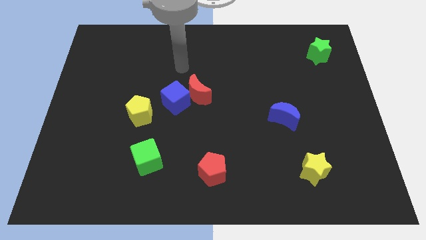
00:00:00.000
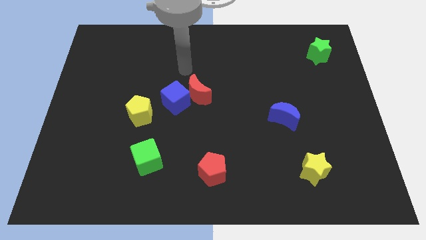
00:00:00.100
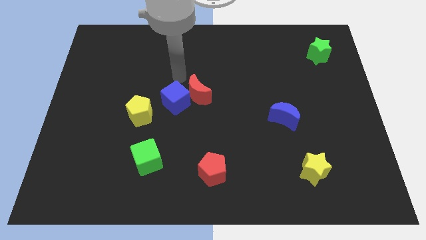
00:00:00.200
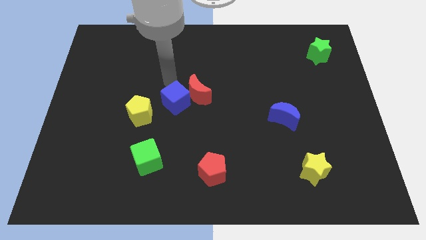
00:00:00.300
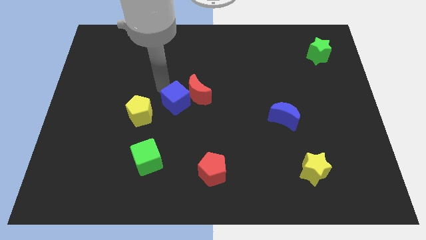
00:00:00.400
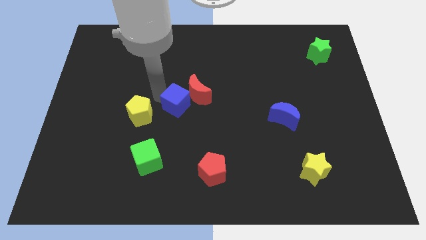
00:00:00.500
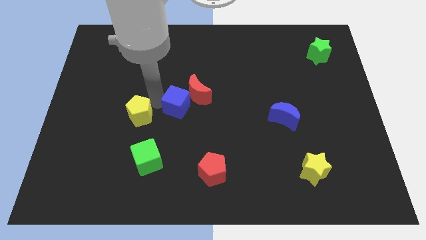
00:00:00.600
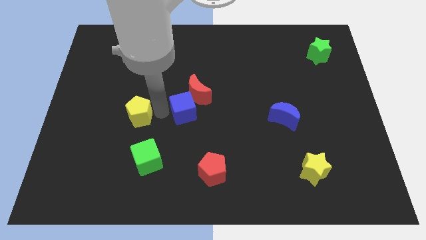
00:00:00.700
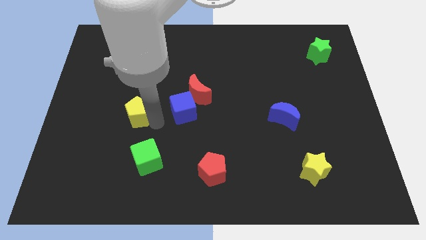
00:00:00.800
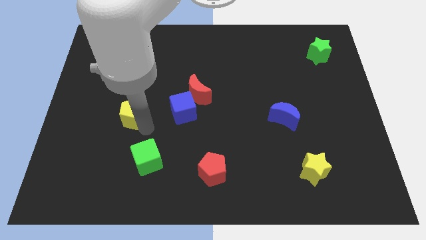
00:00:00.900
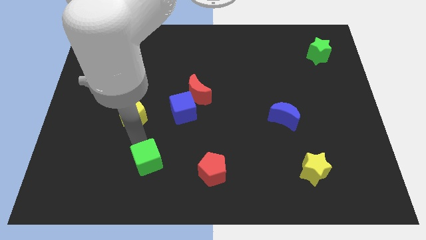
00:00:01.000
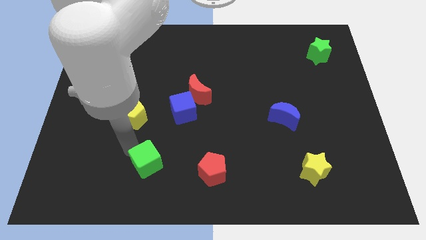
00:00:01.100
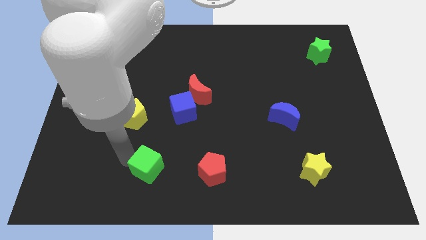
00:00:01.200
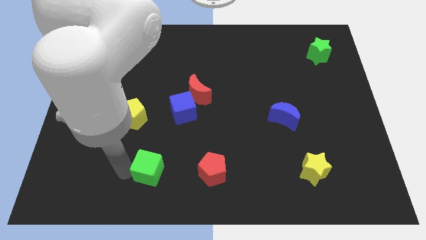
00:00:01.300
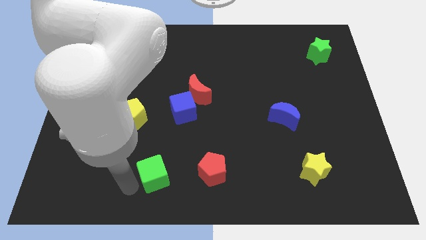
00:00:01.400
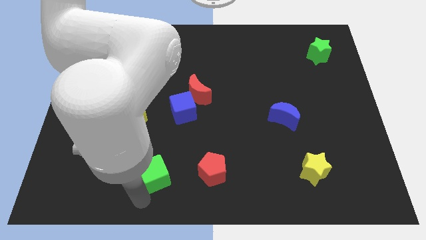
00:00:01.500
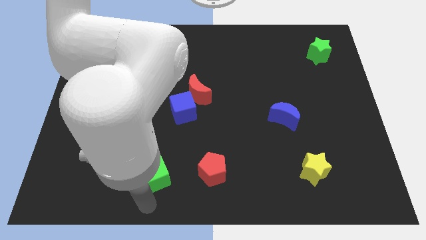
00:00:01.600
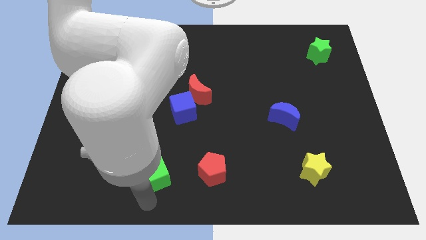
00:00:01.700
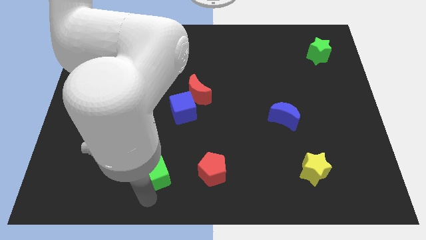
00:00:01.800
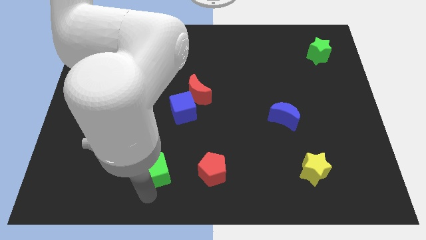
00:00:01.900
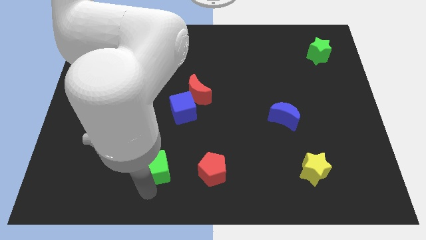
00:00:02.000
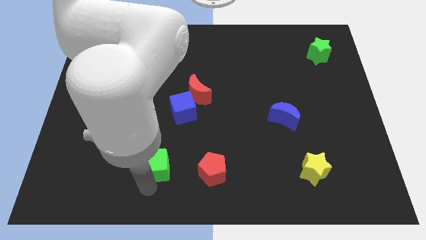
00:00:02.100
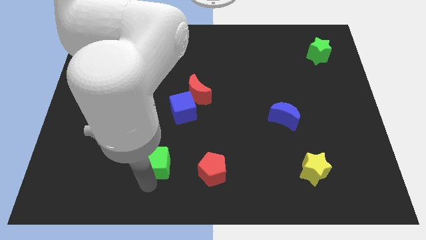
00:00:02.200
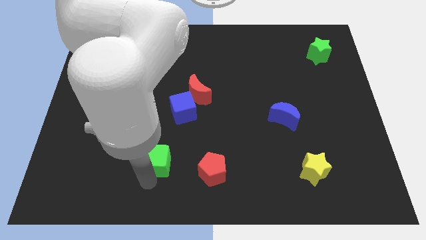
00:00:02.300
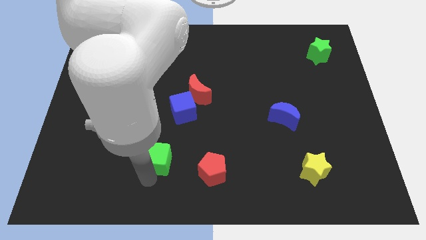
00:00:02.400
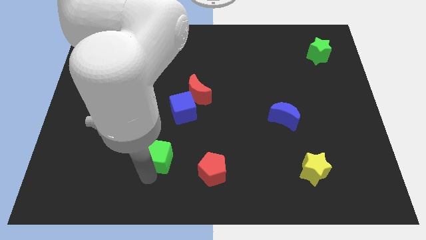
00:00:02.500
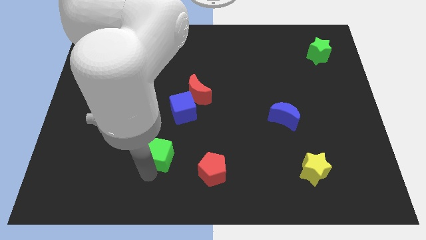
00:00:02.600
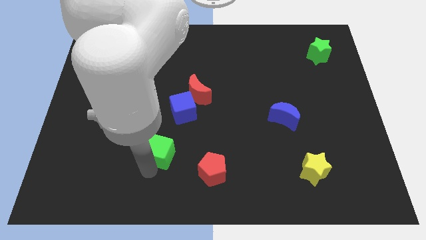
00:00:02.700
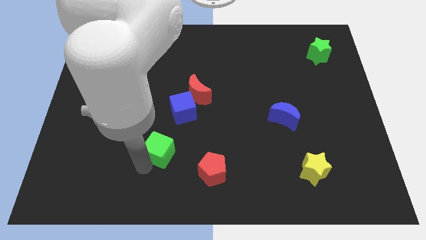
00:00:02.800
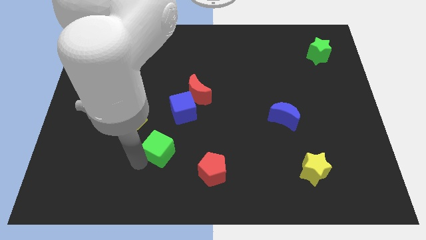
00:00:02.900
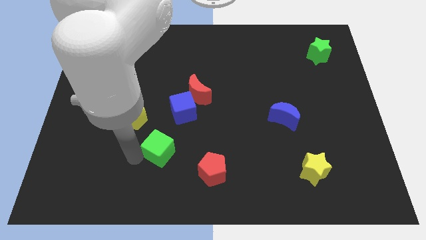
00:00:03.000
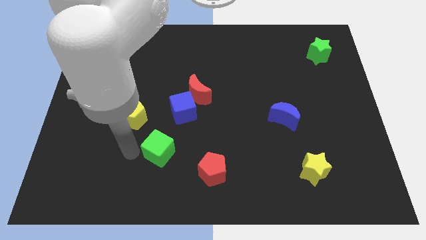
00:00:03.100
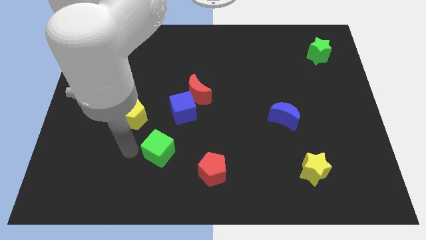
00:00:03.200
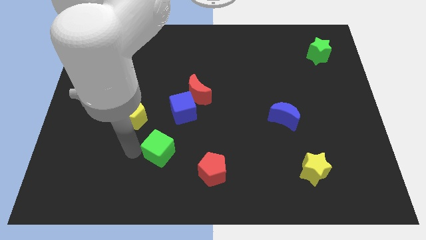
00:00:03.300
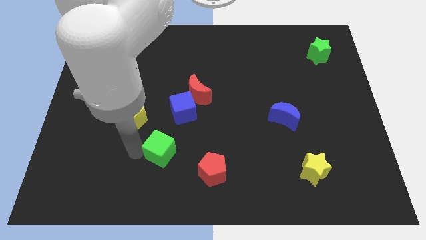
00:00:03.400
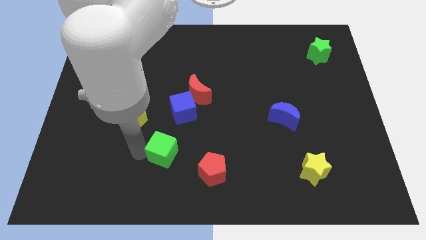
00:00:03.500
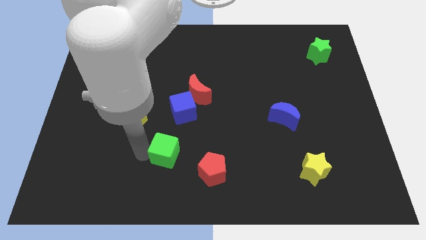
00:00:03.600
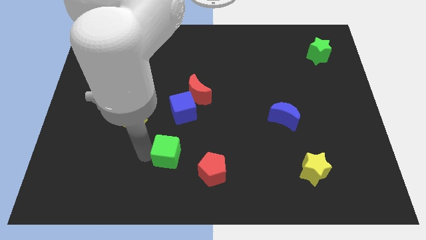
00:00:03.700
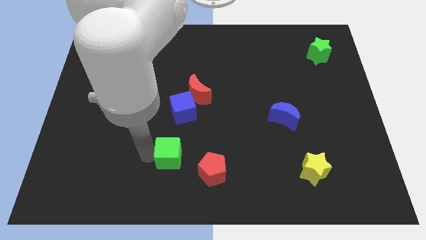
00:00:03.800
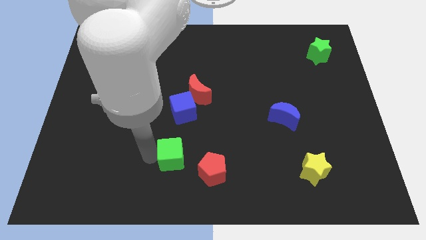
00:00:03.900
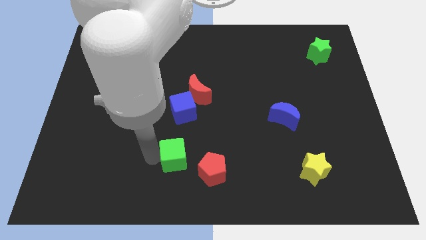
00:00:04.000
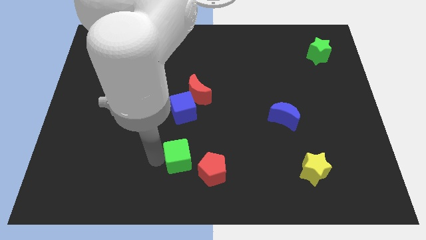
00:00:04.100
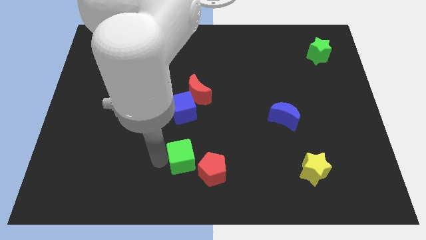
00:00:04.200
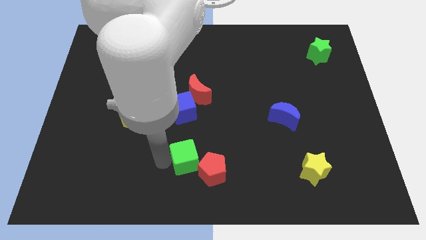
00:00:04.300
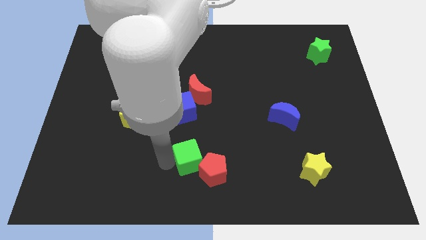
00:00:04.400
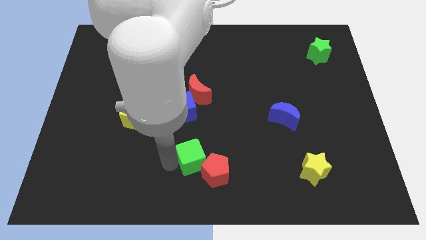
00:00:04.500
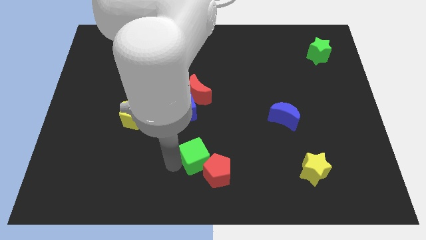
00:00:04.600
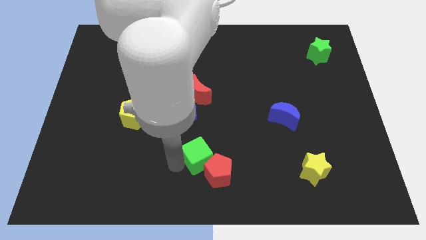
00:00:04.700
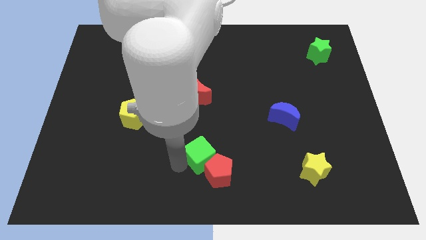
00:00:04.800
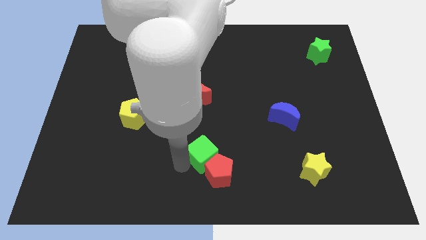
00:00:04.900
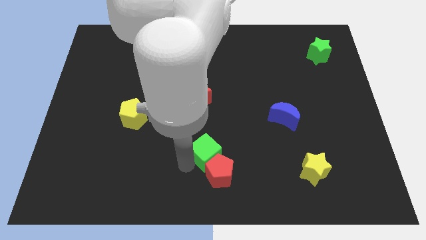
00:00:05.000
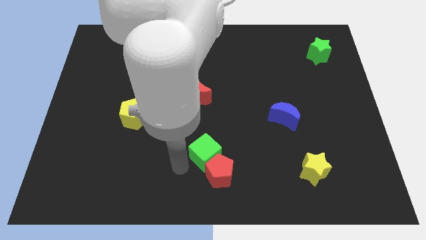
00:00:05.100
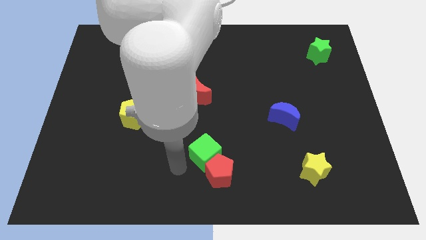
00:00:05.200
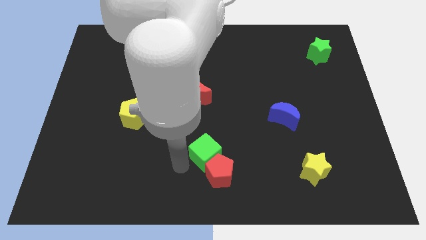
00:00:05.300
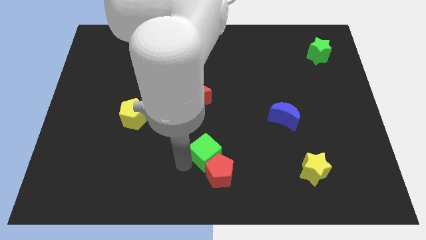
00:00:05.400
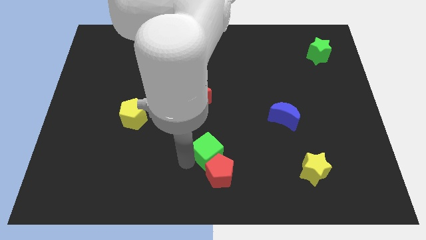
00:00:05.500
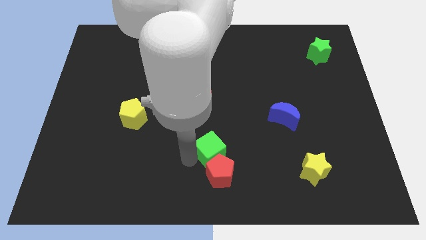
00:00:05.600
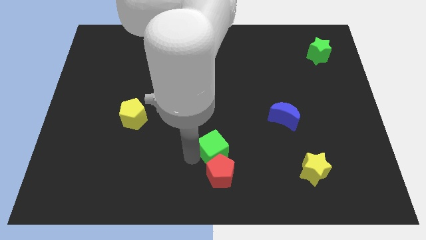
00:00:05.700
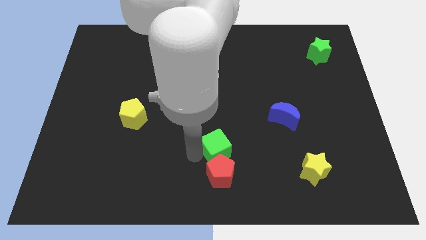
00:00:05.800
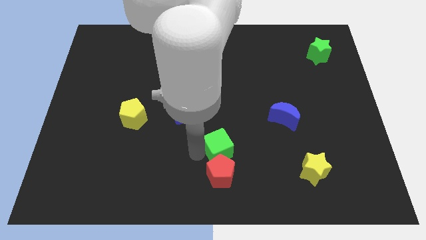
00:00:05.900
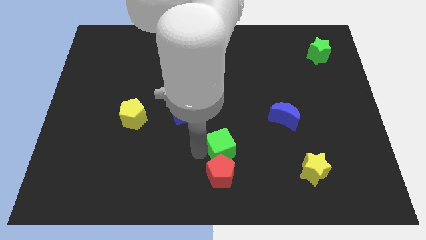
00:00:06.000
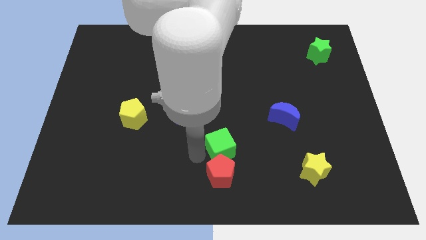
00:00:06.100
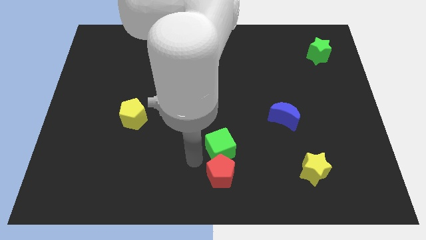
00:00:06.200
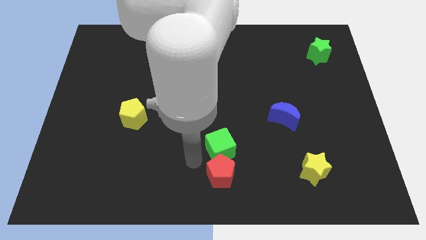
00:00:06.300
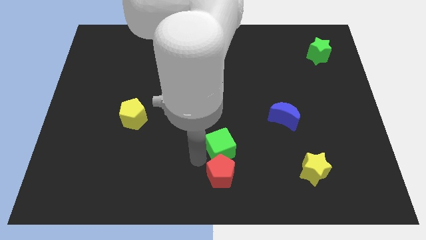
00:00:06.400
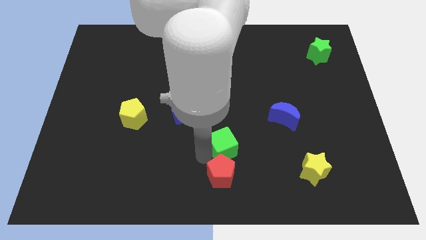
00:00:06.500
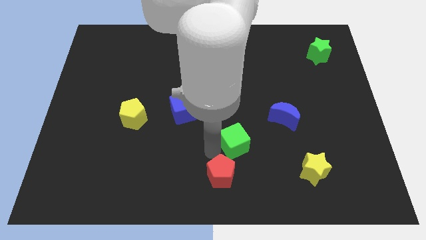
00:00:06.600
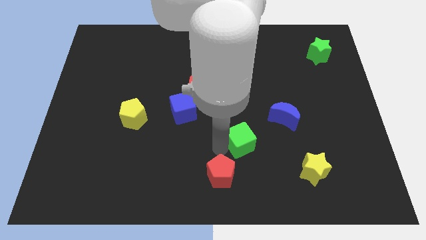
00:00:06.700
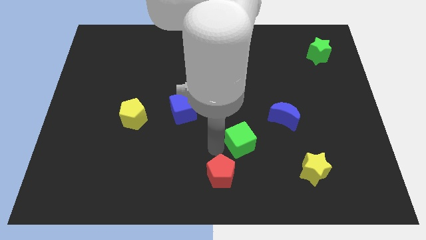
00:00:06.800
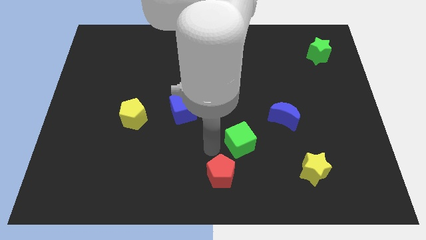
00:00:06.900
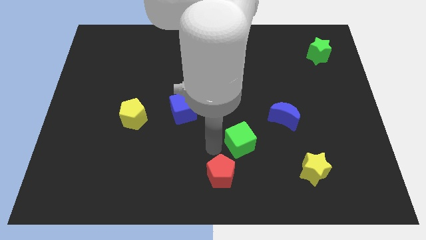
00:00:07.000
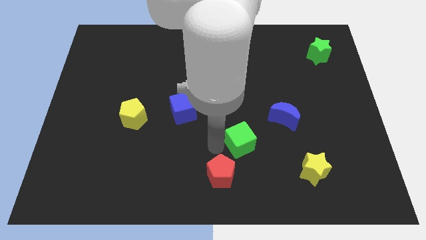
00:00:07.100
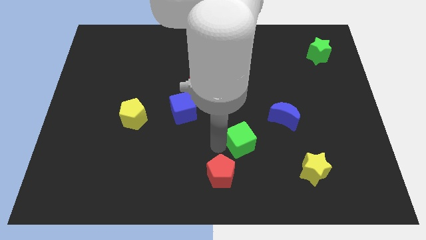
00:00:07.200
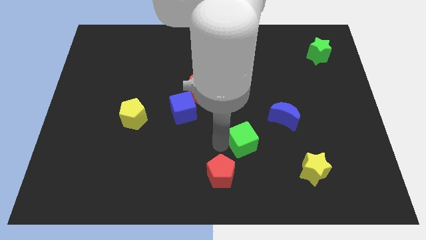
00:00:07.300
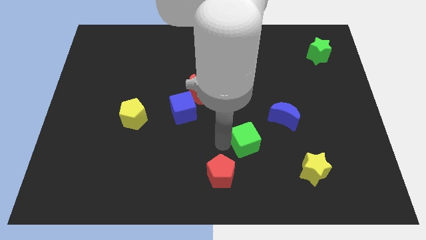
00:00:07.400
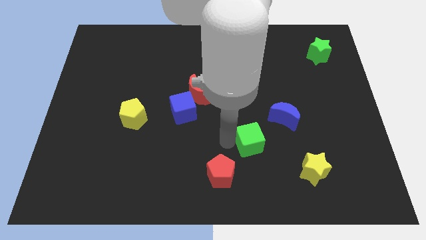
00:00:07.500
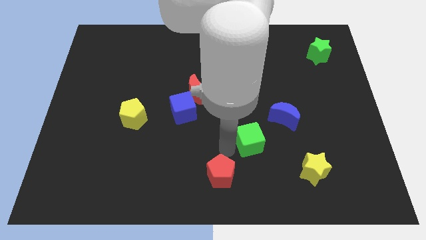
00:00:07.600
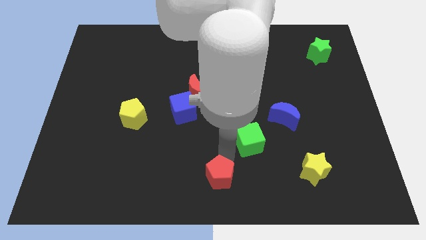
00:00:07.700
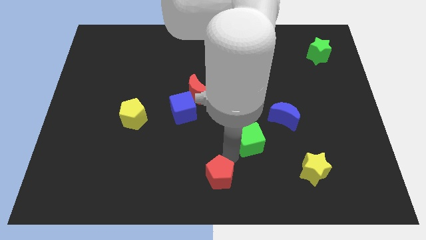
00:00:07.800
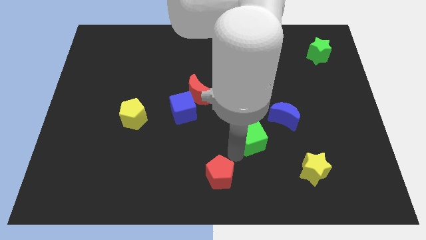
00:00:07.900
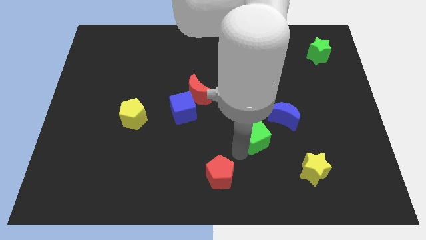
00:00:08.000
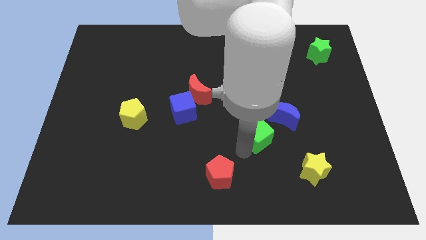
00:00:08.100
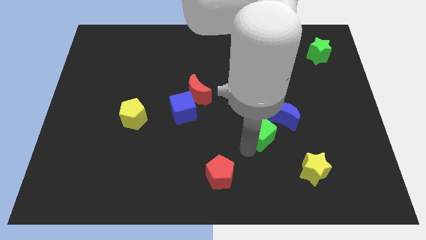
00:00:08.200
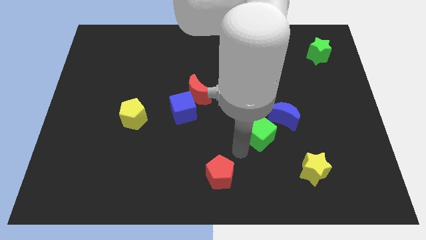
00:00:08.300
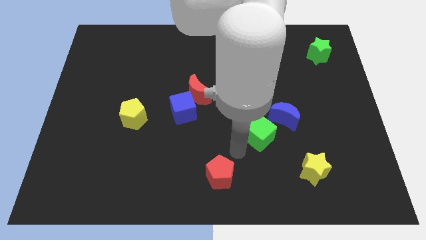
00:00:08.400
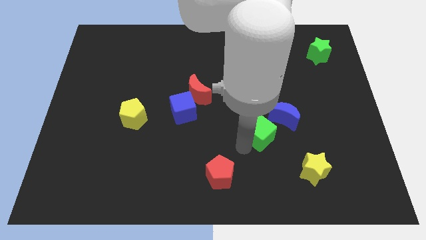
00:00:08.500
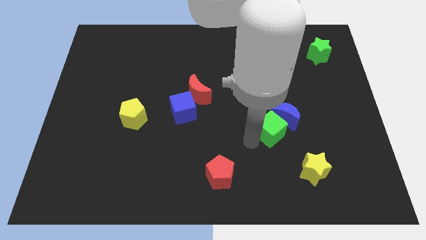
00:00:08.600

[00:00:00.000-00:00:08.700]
put the green cube close to the blue moon
